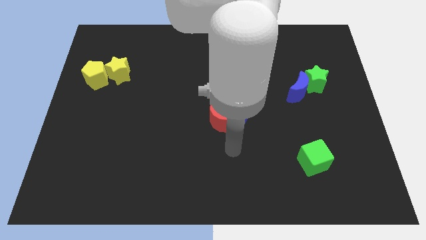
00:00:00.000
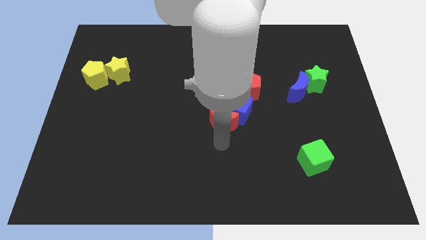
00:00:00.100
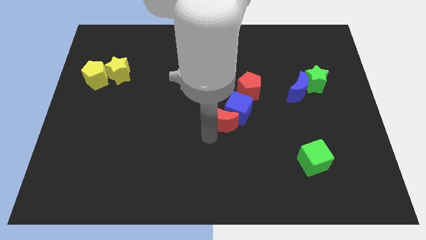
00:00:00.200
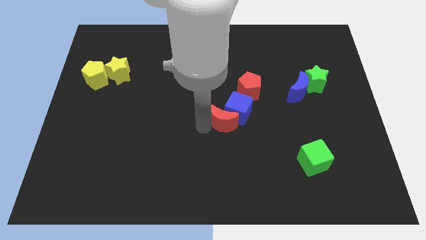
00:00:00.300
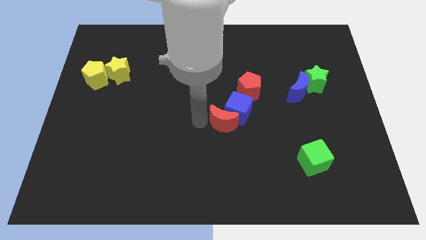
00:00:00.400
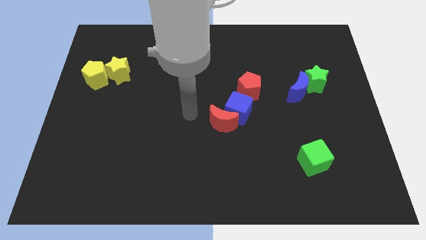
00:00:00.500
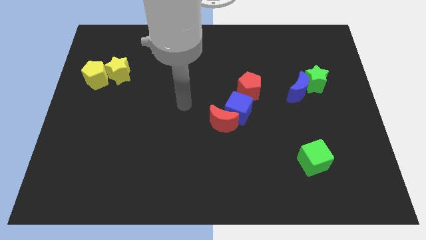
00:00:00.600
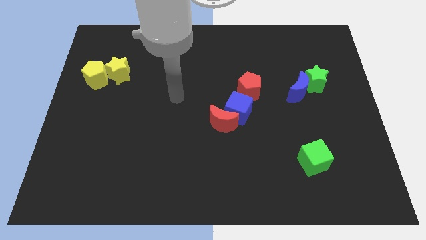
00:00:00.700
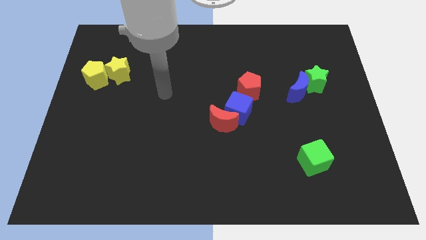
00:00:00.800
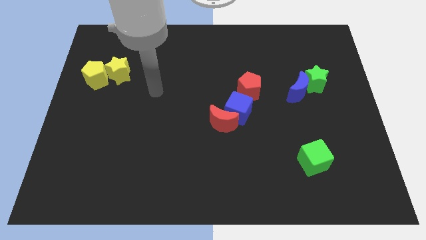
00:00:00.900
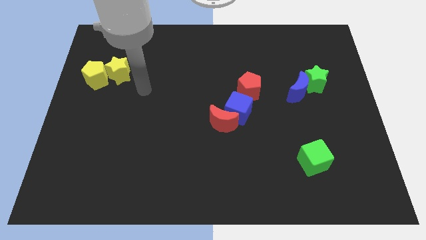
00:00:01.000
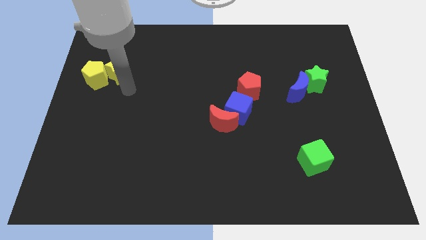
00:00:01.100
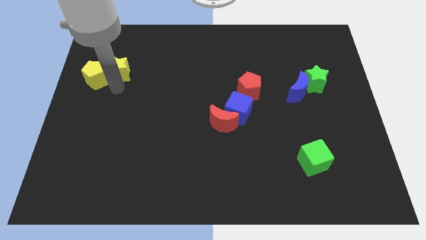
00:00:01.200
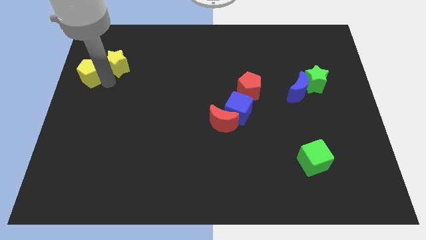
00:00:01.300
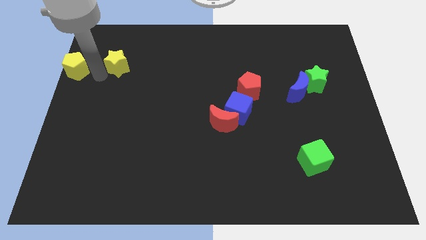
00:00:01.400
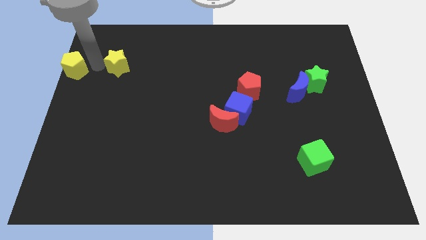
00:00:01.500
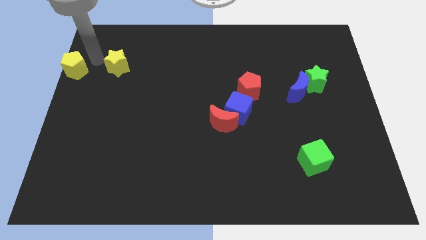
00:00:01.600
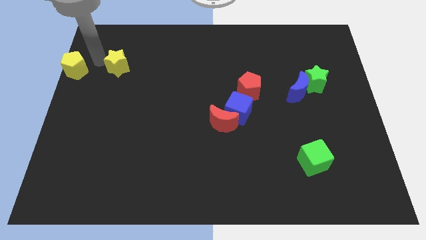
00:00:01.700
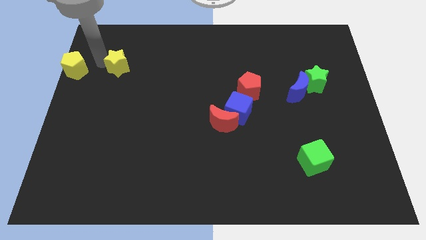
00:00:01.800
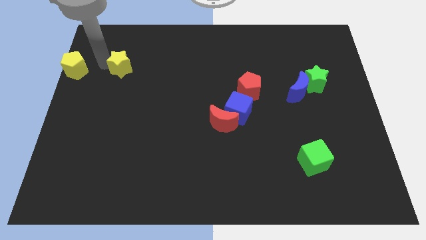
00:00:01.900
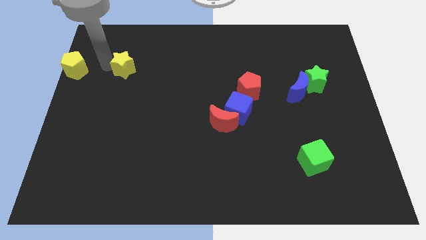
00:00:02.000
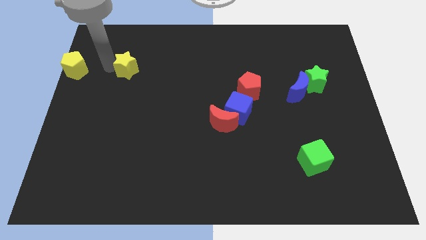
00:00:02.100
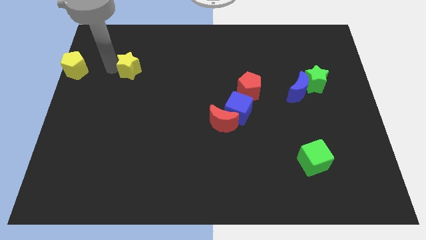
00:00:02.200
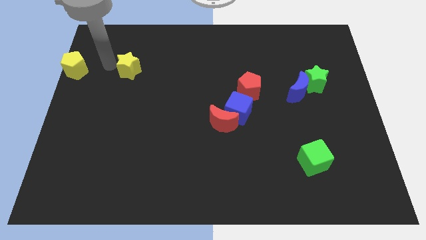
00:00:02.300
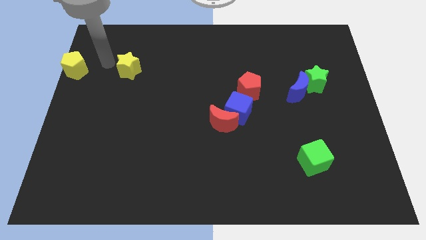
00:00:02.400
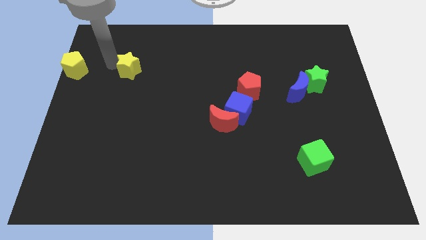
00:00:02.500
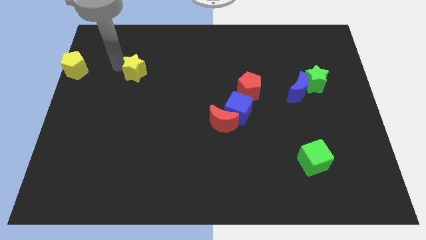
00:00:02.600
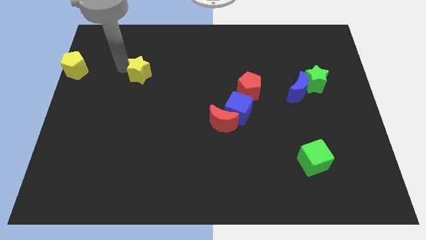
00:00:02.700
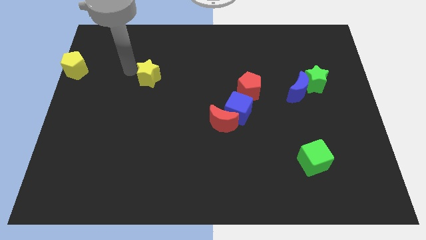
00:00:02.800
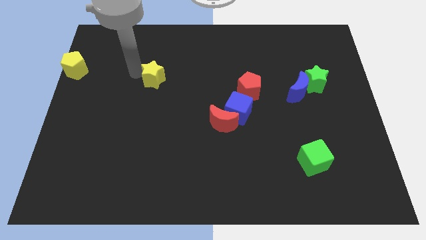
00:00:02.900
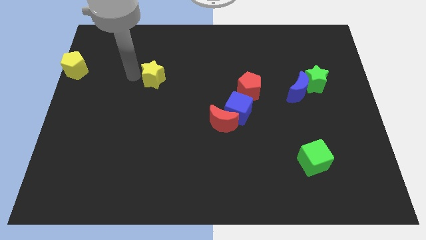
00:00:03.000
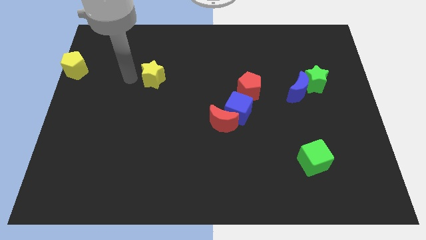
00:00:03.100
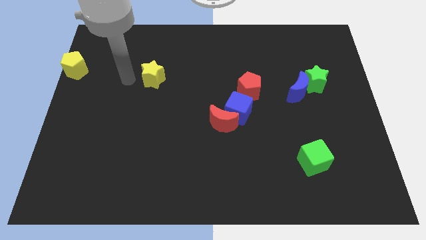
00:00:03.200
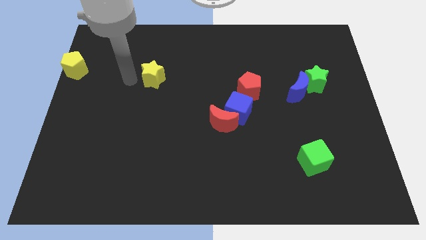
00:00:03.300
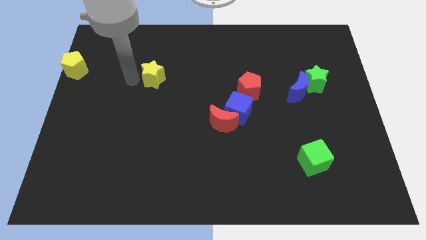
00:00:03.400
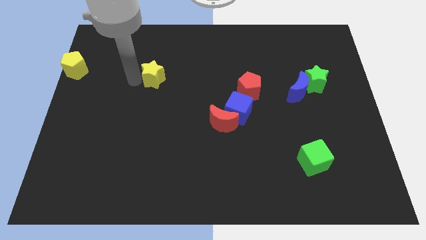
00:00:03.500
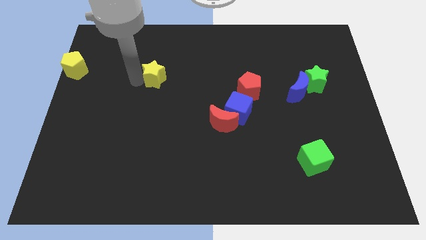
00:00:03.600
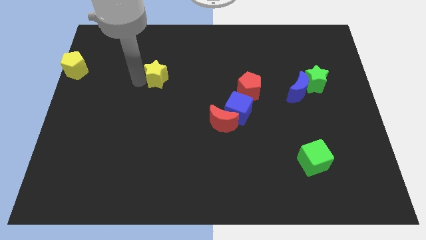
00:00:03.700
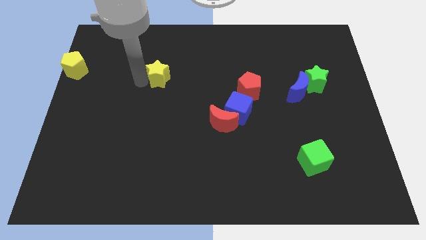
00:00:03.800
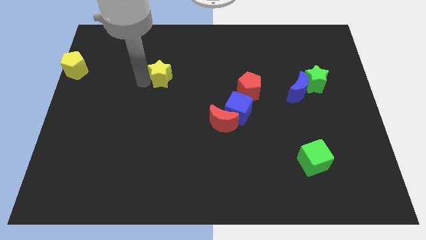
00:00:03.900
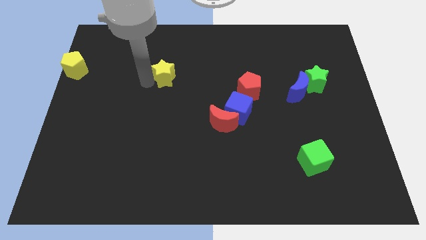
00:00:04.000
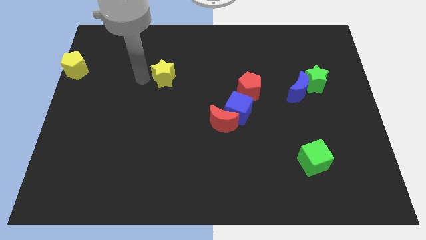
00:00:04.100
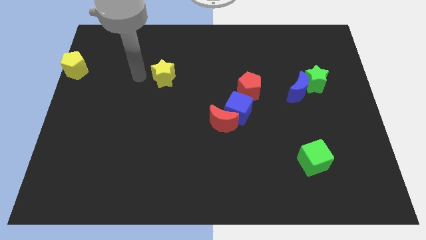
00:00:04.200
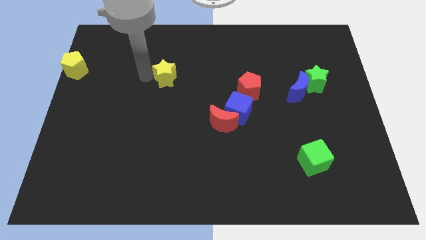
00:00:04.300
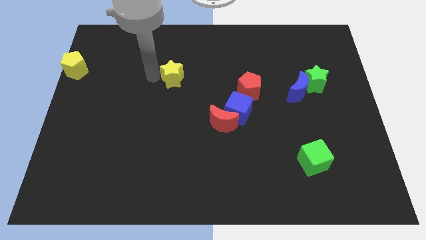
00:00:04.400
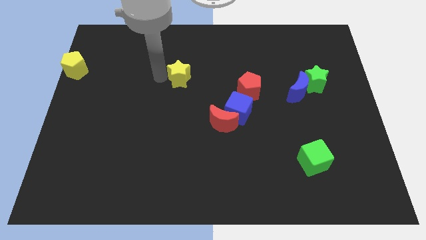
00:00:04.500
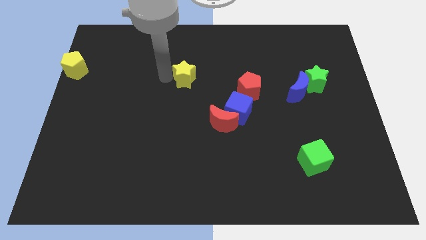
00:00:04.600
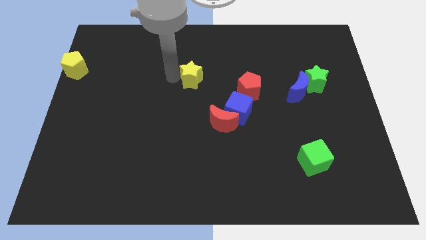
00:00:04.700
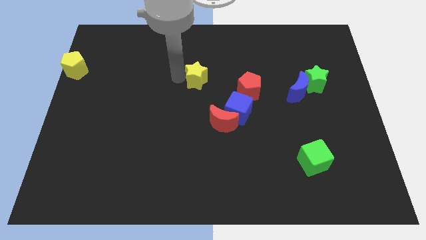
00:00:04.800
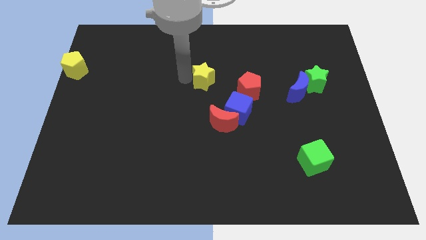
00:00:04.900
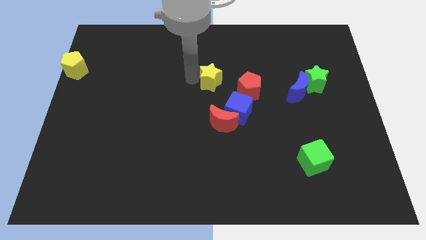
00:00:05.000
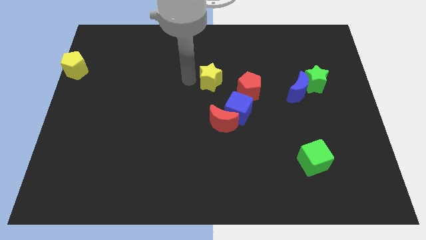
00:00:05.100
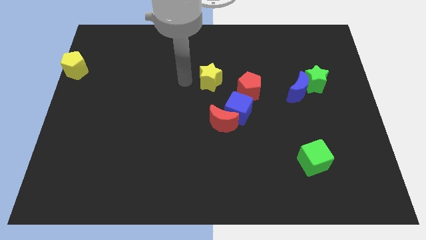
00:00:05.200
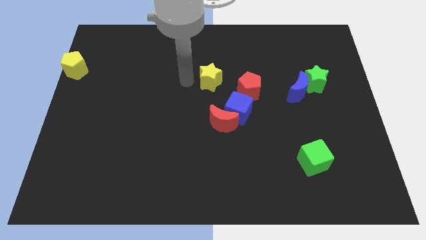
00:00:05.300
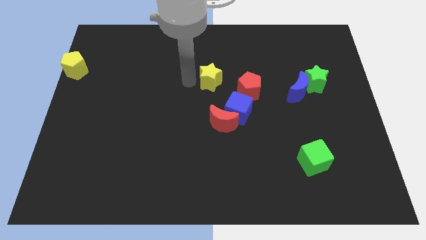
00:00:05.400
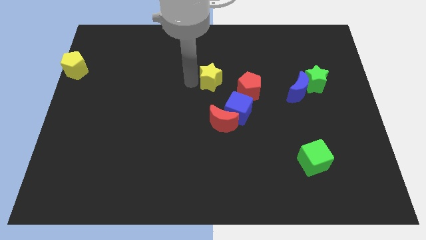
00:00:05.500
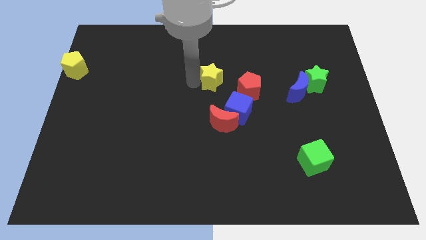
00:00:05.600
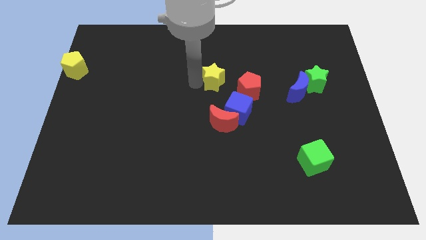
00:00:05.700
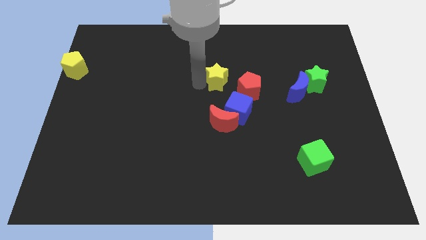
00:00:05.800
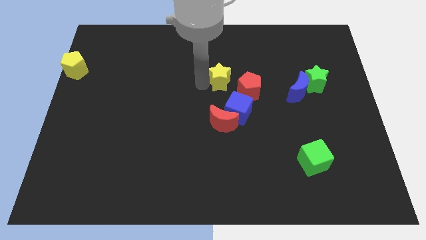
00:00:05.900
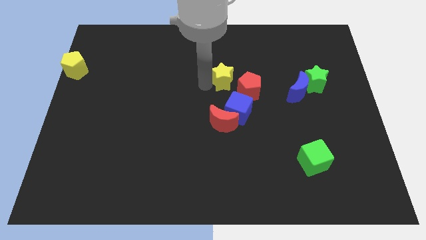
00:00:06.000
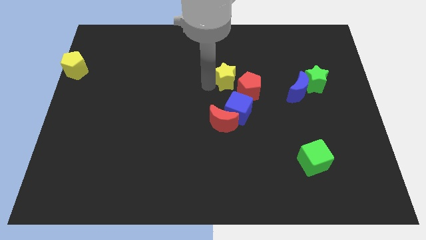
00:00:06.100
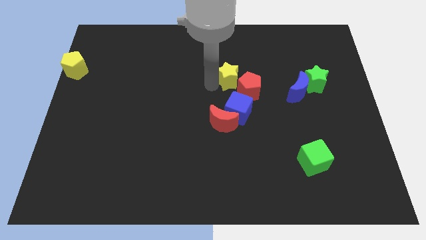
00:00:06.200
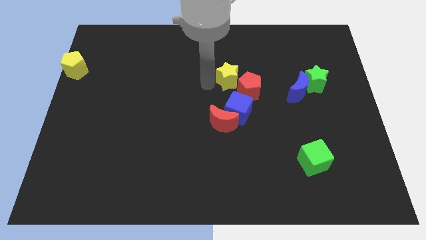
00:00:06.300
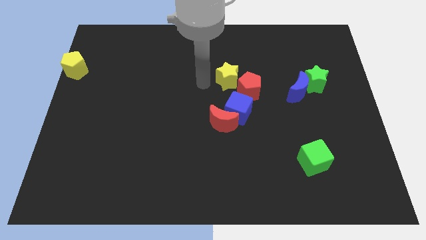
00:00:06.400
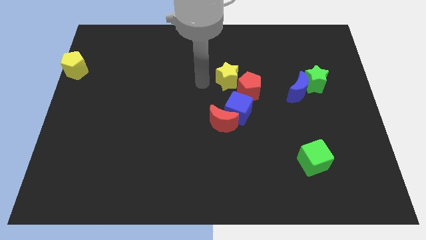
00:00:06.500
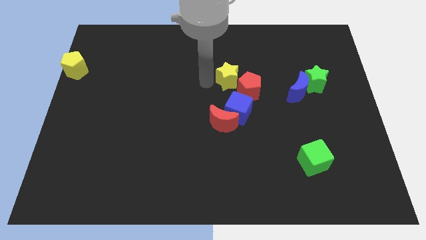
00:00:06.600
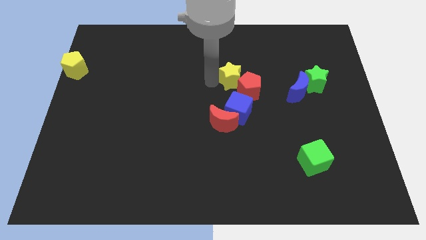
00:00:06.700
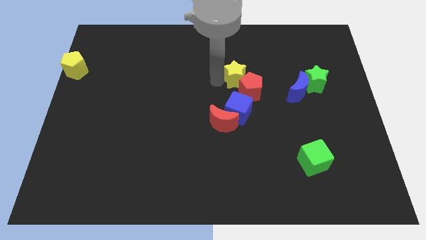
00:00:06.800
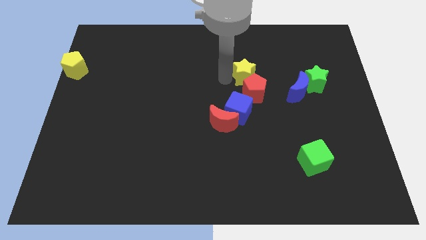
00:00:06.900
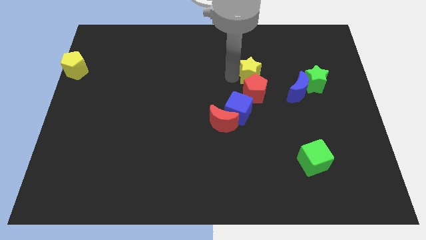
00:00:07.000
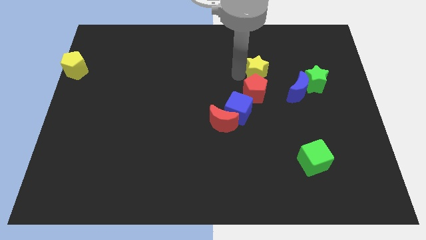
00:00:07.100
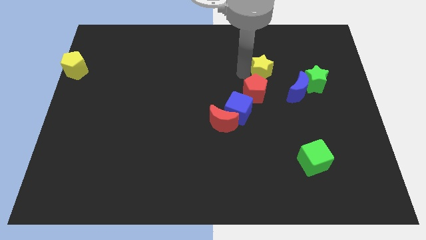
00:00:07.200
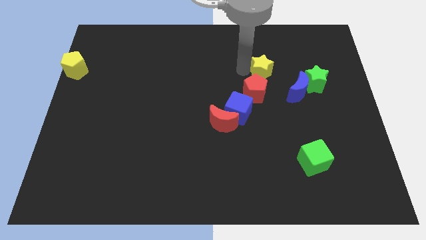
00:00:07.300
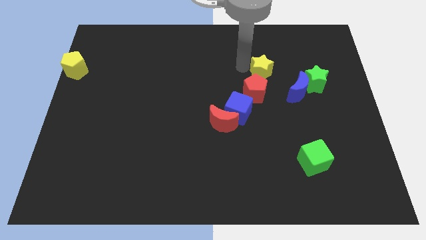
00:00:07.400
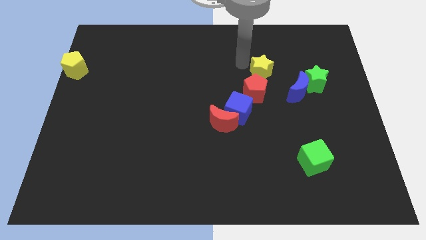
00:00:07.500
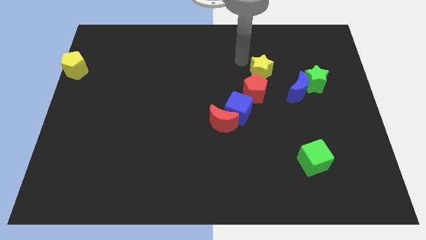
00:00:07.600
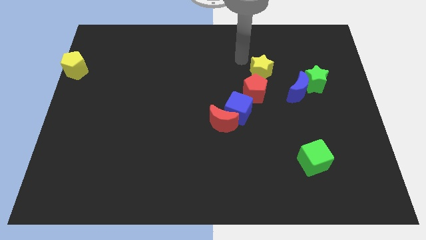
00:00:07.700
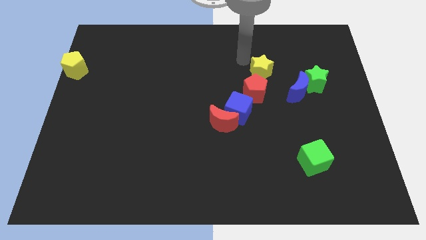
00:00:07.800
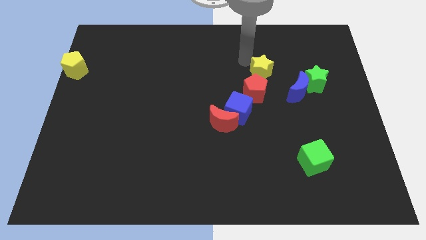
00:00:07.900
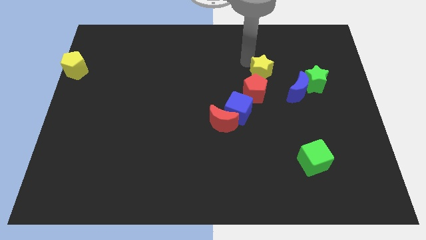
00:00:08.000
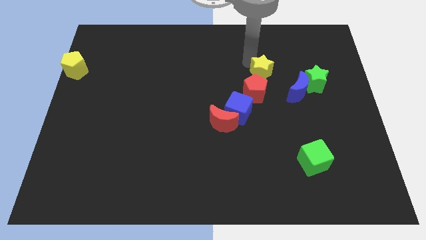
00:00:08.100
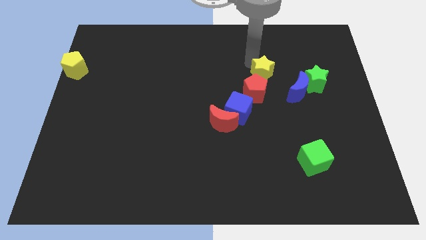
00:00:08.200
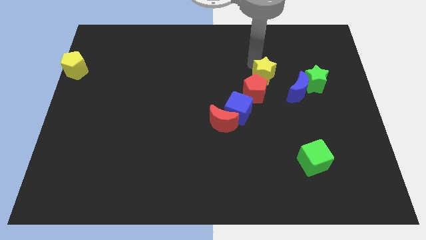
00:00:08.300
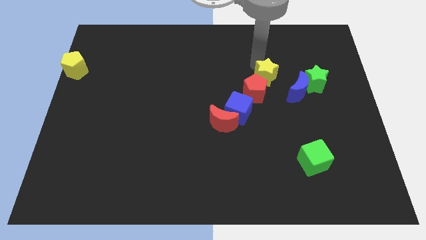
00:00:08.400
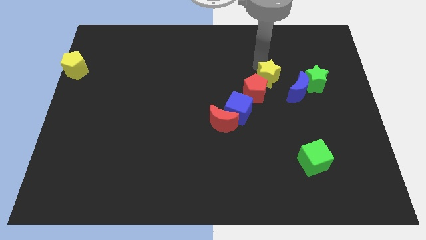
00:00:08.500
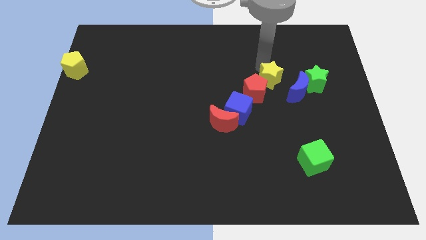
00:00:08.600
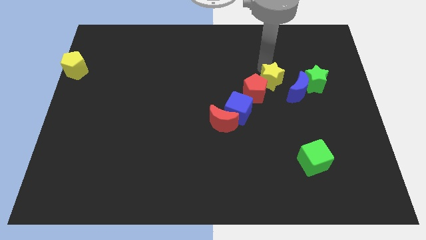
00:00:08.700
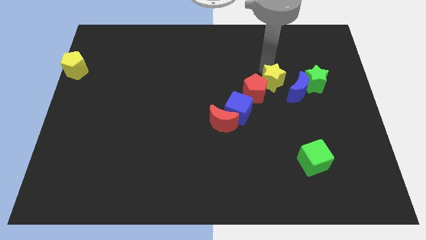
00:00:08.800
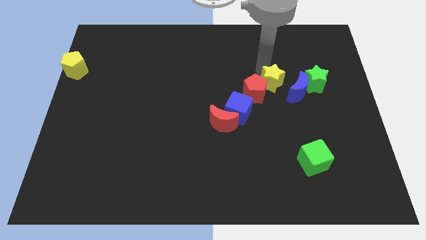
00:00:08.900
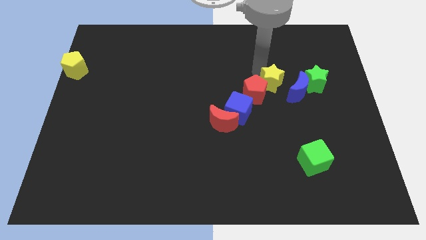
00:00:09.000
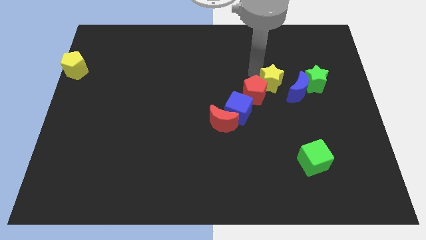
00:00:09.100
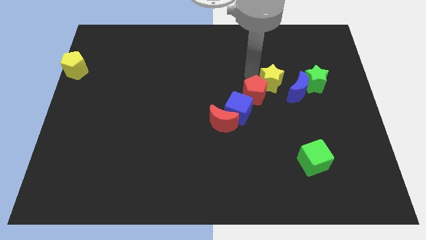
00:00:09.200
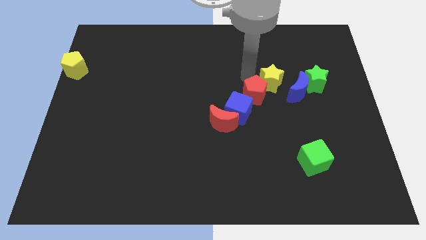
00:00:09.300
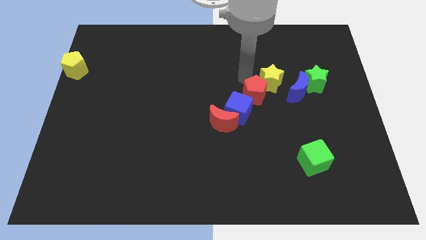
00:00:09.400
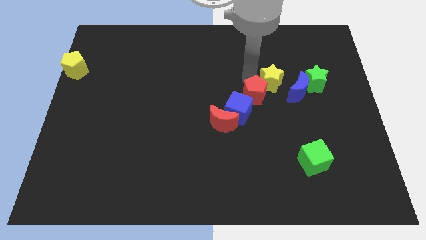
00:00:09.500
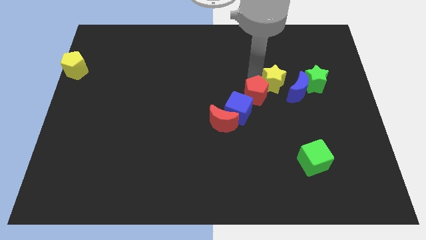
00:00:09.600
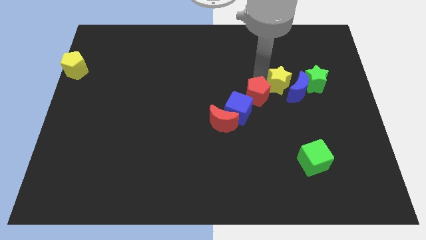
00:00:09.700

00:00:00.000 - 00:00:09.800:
slide the yellow star close to the blue moon
